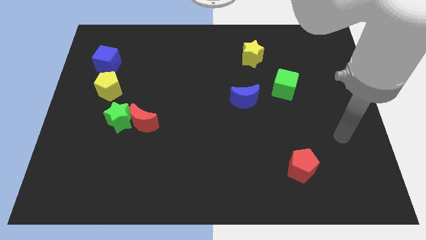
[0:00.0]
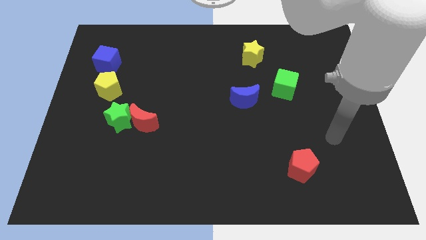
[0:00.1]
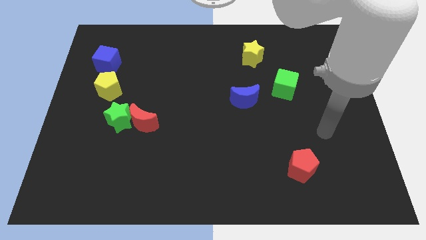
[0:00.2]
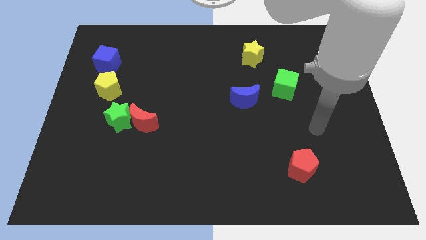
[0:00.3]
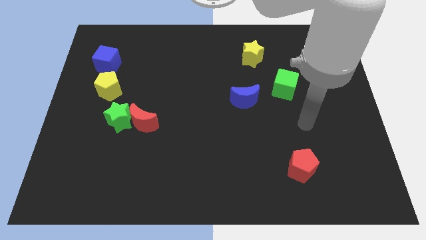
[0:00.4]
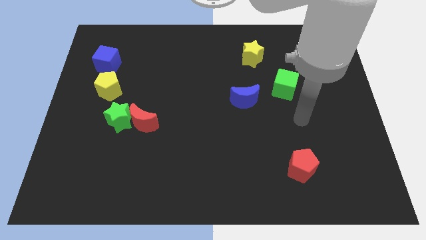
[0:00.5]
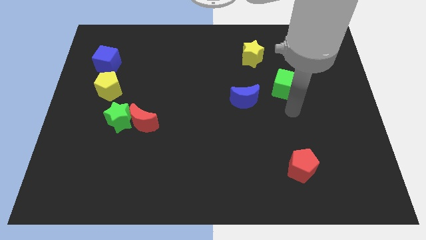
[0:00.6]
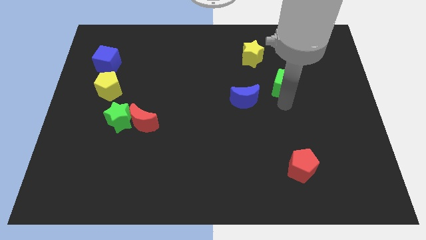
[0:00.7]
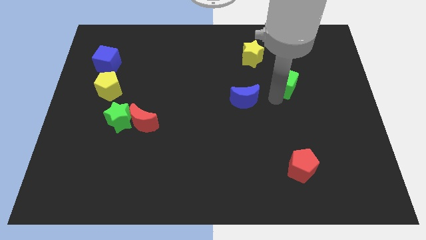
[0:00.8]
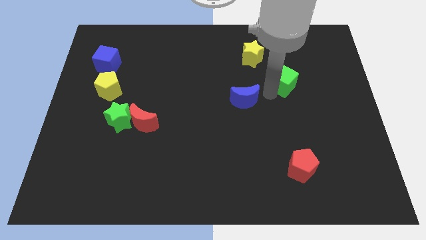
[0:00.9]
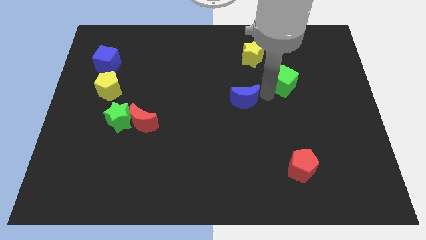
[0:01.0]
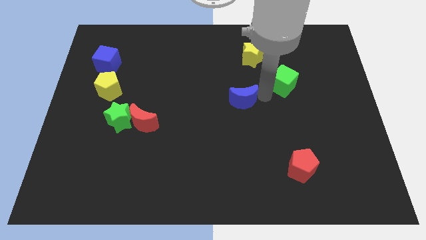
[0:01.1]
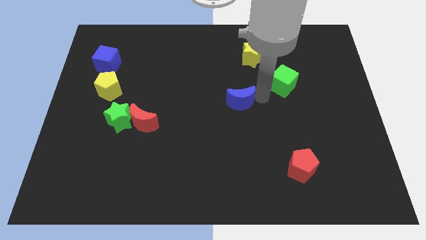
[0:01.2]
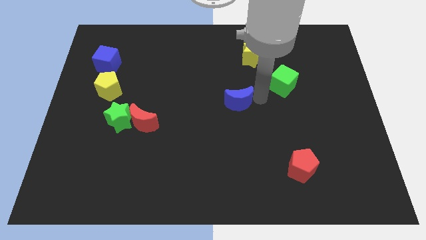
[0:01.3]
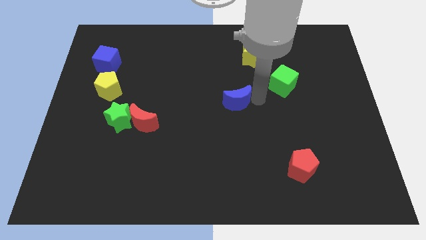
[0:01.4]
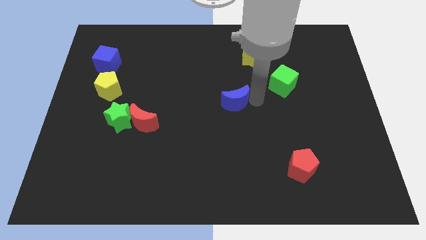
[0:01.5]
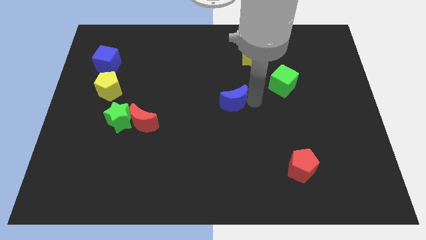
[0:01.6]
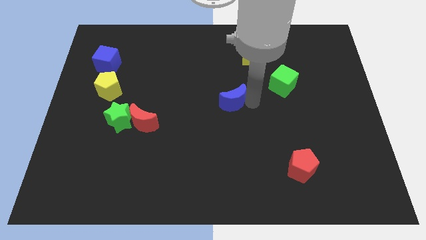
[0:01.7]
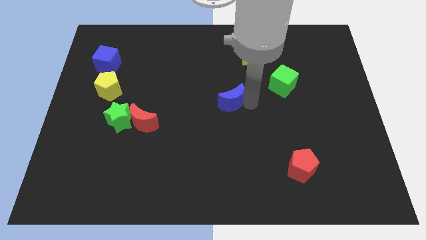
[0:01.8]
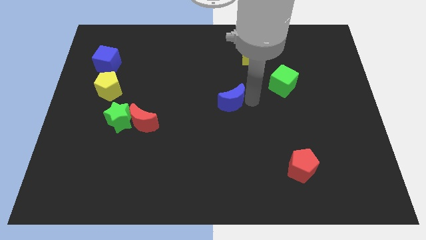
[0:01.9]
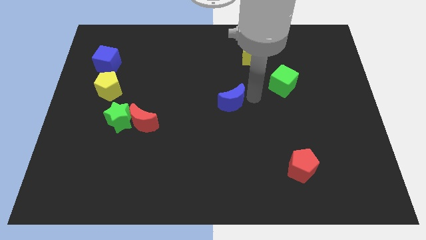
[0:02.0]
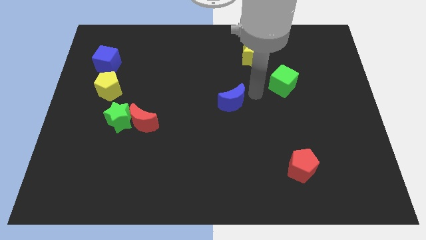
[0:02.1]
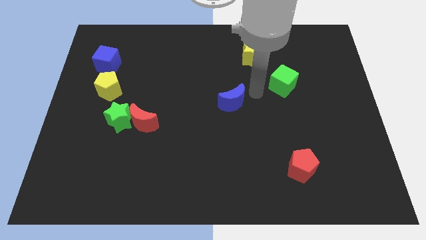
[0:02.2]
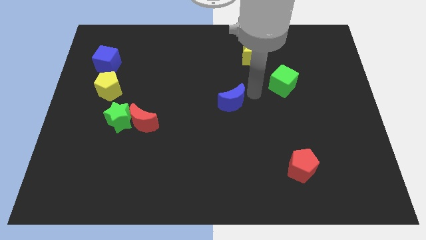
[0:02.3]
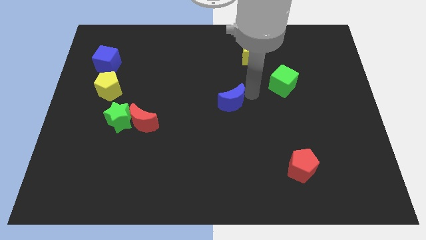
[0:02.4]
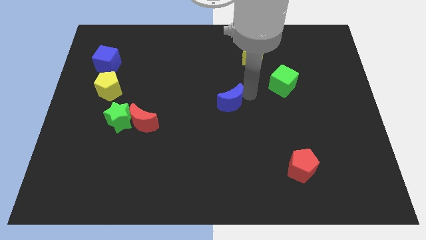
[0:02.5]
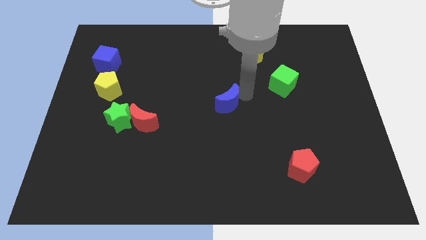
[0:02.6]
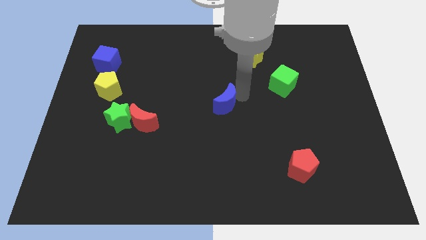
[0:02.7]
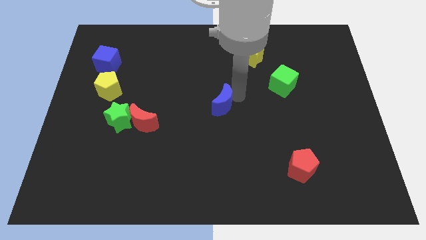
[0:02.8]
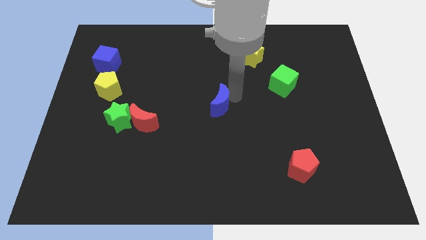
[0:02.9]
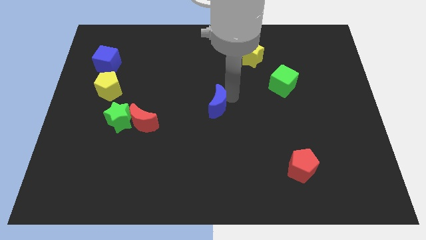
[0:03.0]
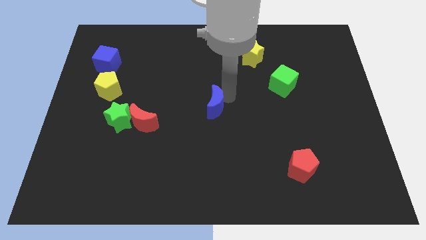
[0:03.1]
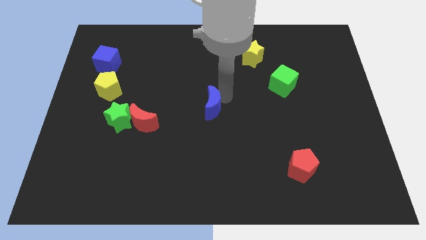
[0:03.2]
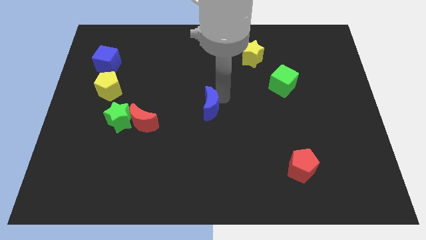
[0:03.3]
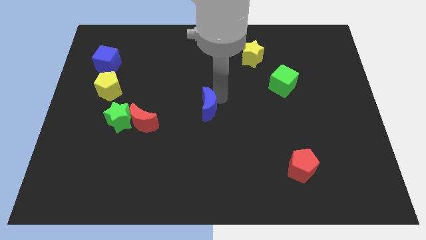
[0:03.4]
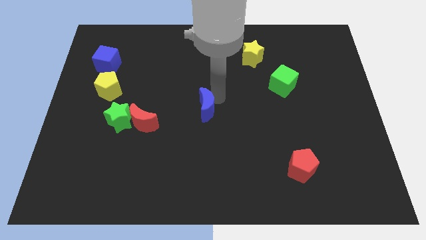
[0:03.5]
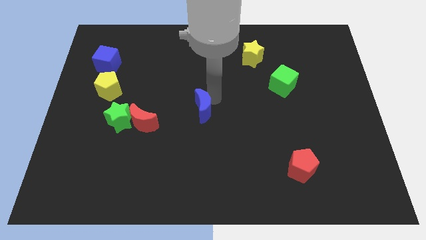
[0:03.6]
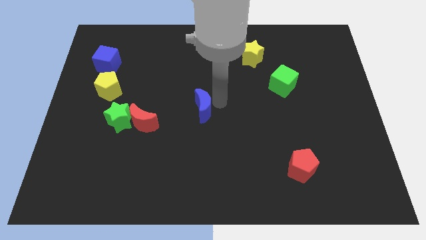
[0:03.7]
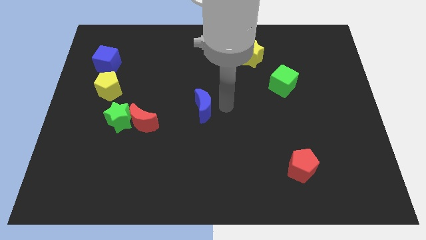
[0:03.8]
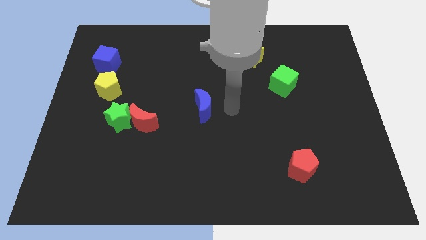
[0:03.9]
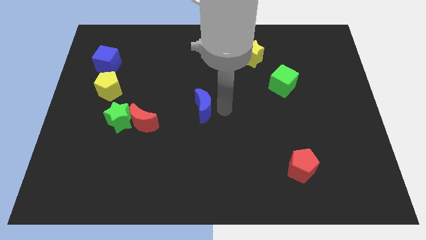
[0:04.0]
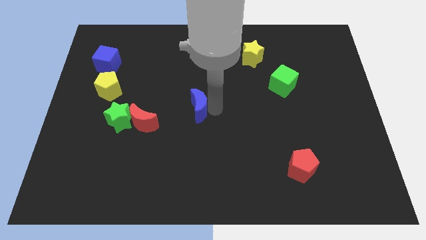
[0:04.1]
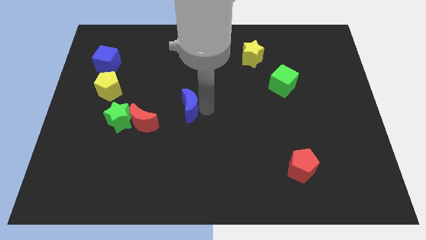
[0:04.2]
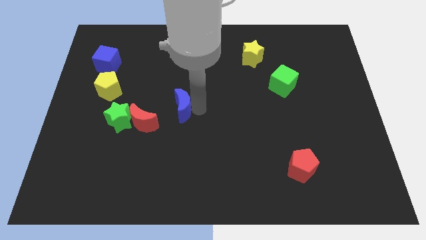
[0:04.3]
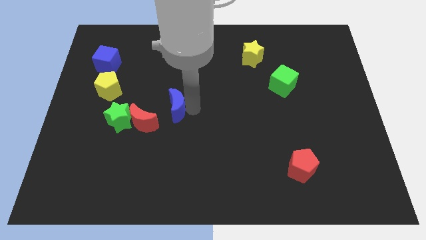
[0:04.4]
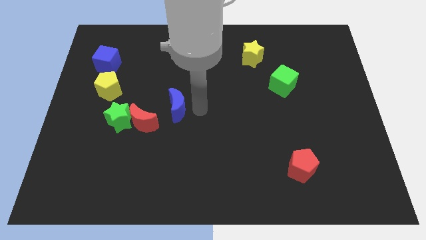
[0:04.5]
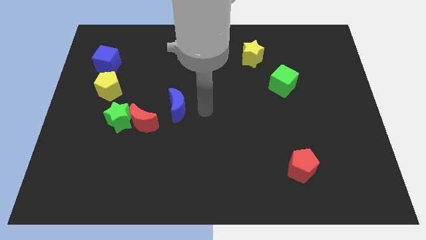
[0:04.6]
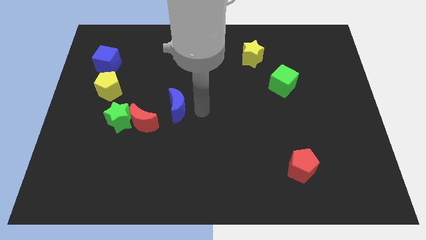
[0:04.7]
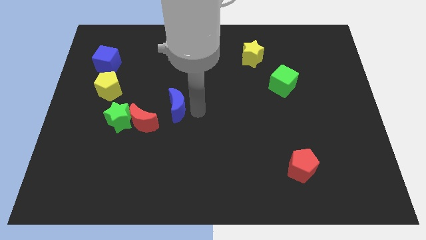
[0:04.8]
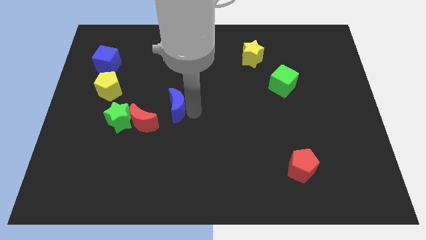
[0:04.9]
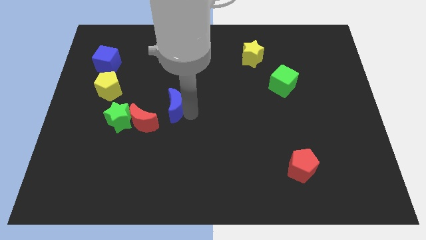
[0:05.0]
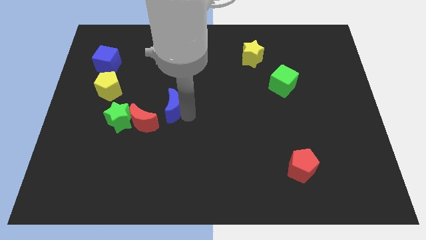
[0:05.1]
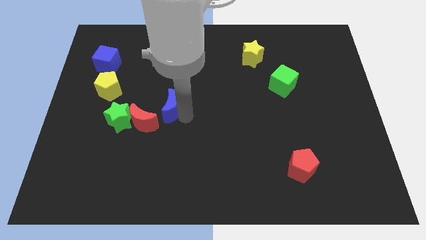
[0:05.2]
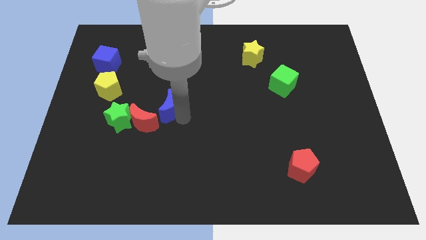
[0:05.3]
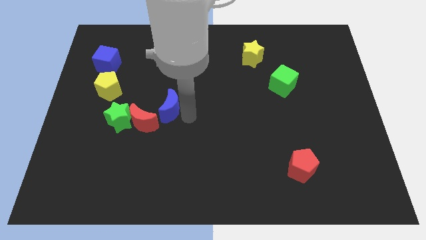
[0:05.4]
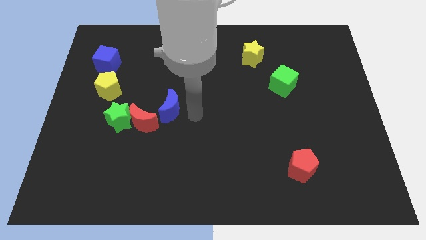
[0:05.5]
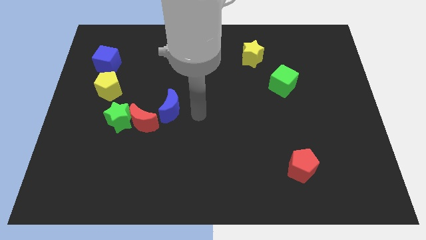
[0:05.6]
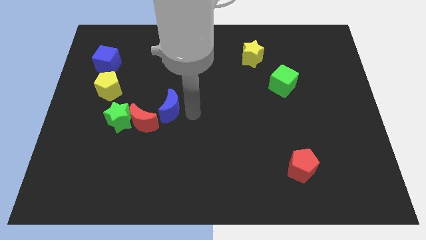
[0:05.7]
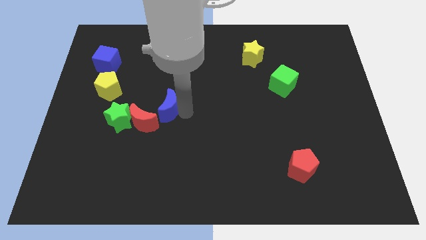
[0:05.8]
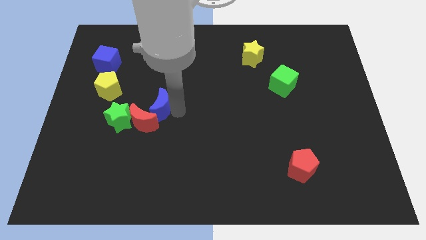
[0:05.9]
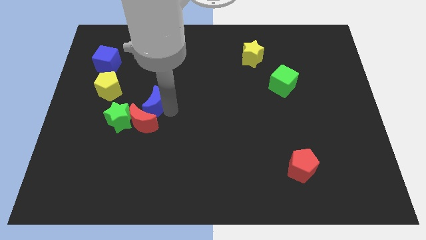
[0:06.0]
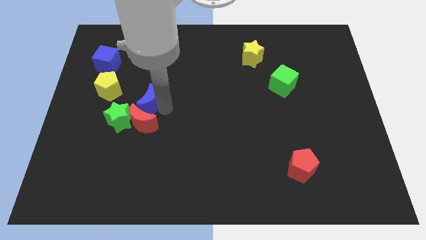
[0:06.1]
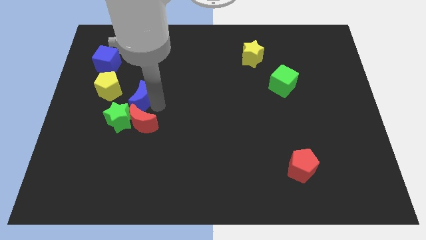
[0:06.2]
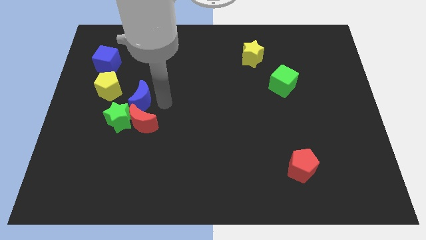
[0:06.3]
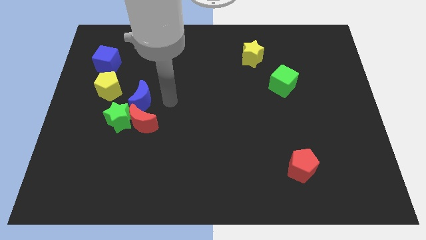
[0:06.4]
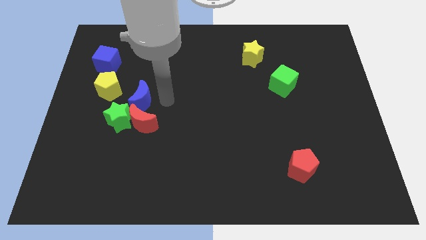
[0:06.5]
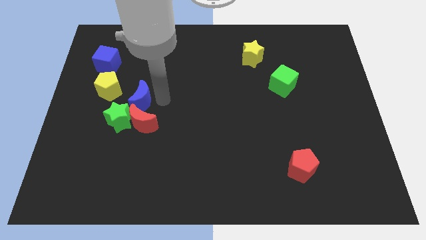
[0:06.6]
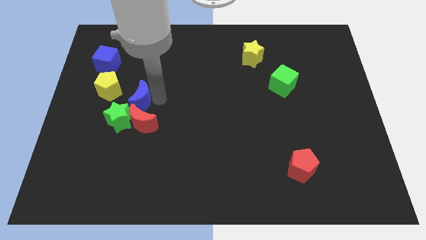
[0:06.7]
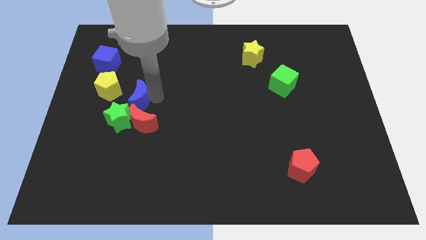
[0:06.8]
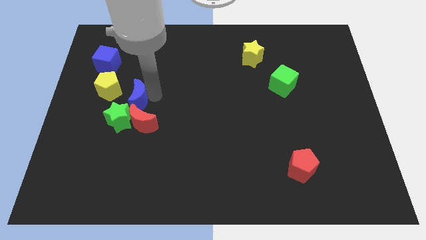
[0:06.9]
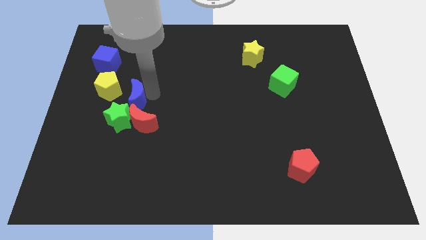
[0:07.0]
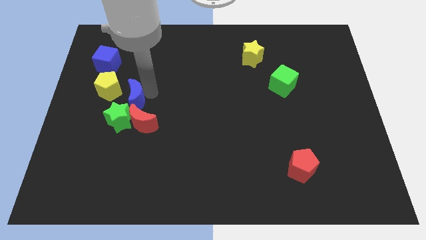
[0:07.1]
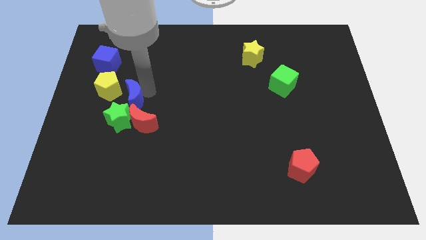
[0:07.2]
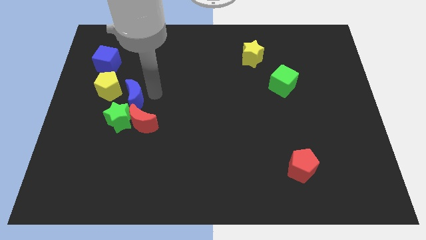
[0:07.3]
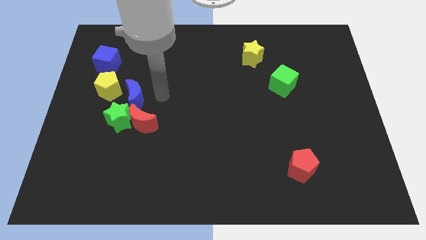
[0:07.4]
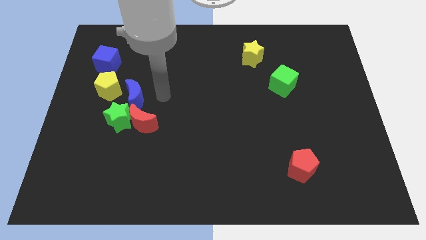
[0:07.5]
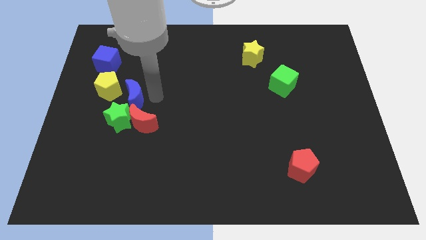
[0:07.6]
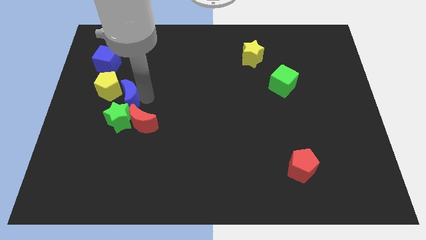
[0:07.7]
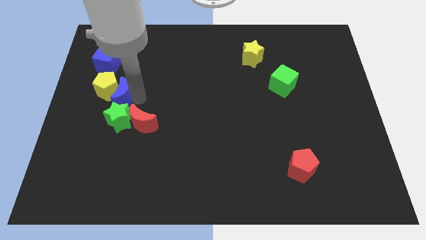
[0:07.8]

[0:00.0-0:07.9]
push the blue moon to the top left of the green star
